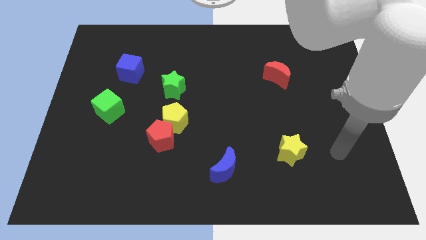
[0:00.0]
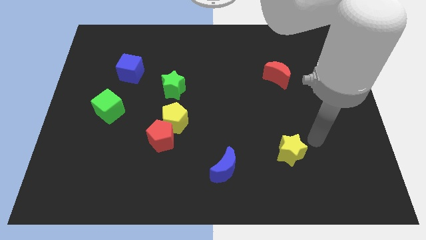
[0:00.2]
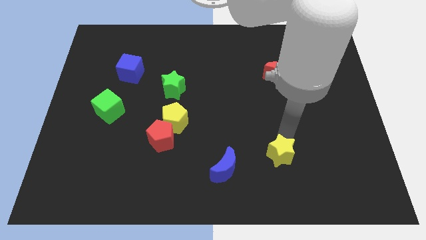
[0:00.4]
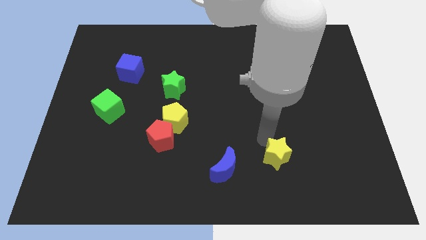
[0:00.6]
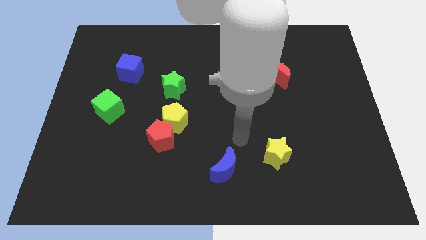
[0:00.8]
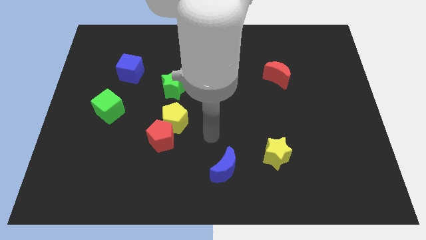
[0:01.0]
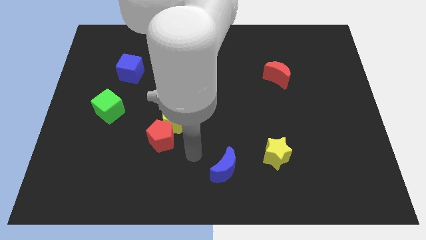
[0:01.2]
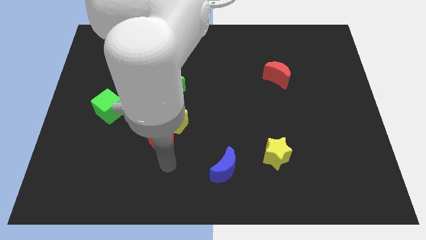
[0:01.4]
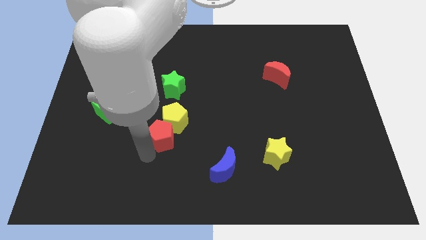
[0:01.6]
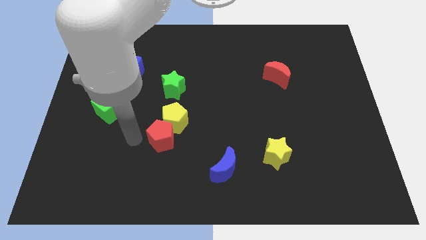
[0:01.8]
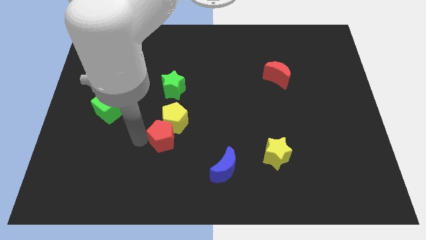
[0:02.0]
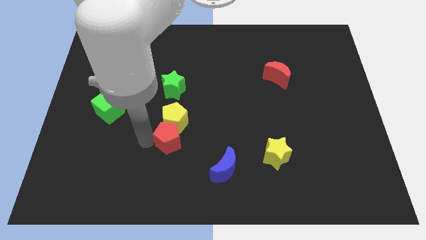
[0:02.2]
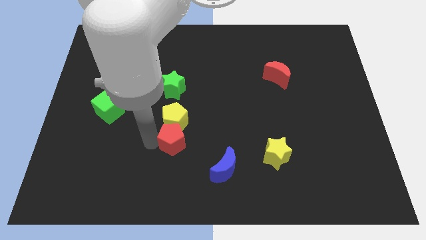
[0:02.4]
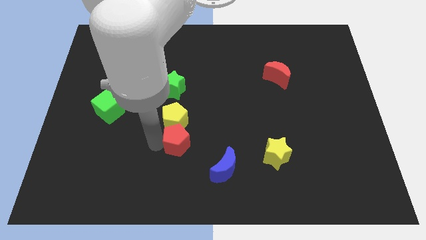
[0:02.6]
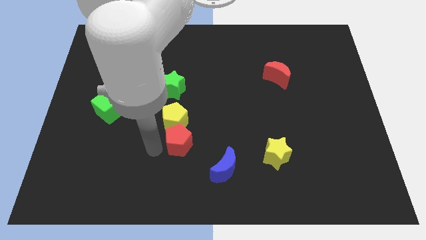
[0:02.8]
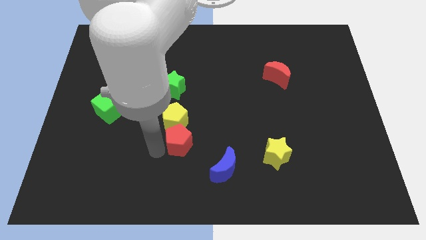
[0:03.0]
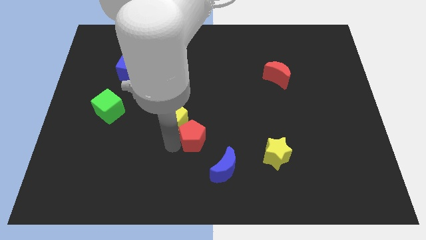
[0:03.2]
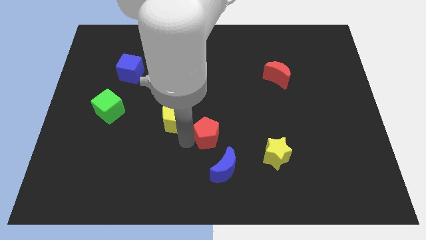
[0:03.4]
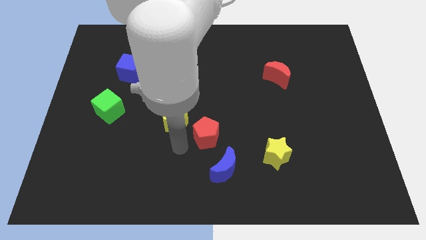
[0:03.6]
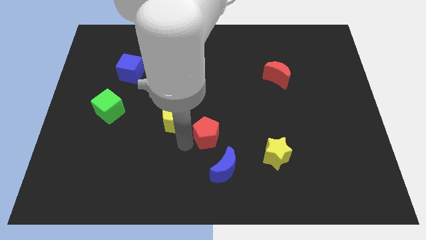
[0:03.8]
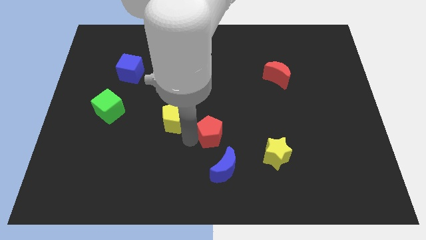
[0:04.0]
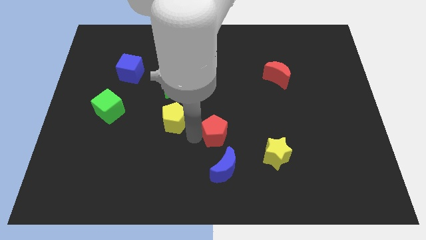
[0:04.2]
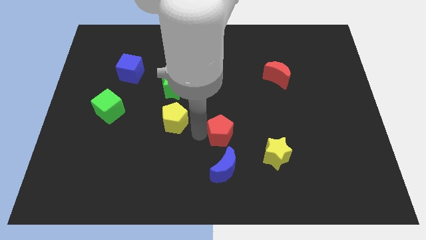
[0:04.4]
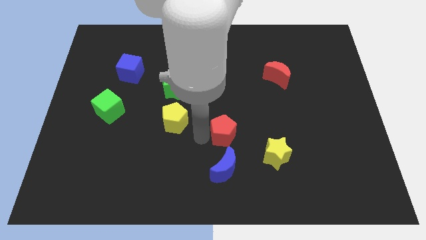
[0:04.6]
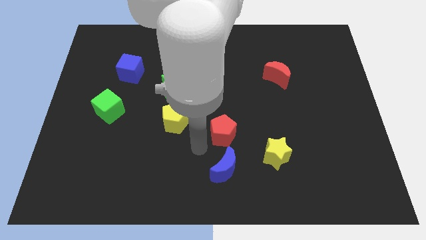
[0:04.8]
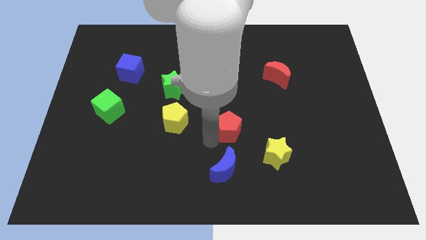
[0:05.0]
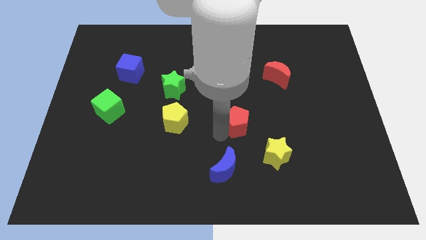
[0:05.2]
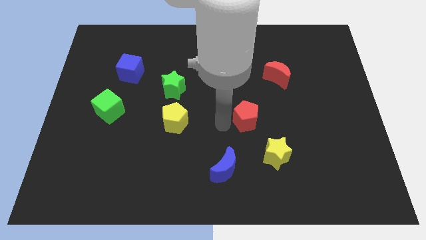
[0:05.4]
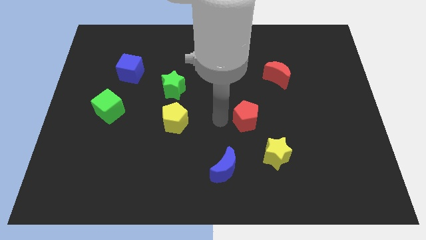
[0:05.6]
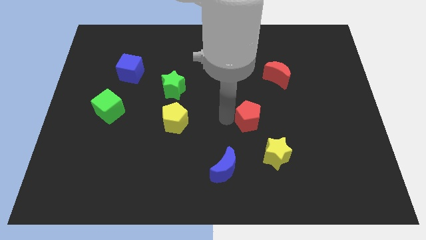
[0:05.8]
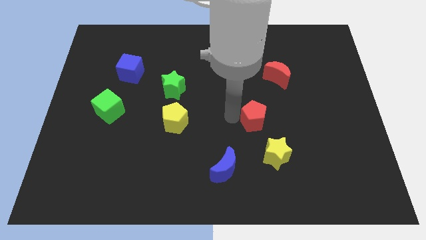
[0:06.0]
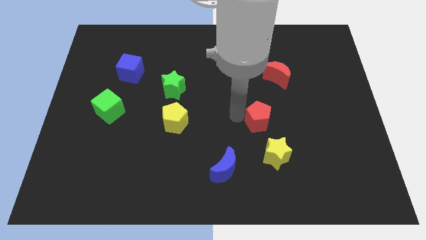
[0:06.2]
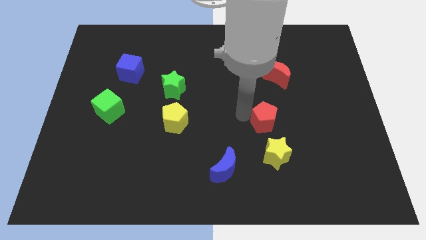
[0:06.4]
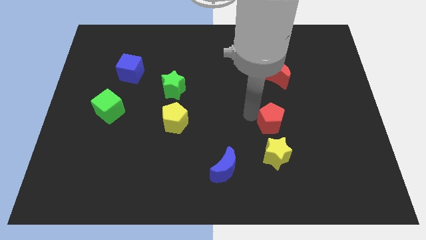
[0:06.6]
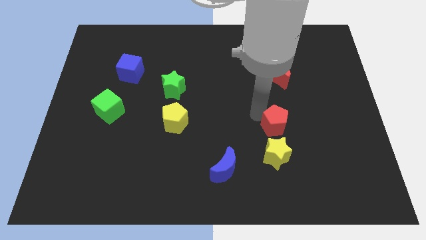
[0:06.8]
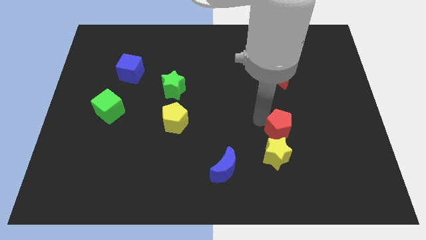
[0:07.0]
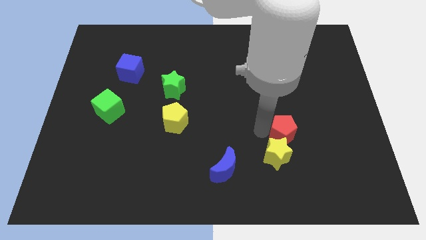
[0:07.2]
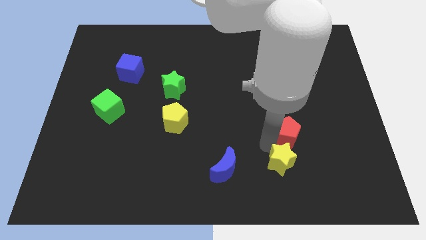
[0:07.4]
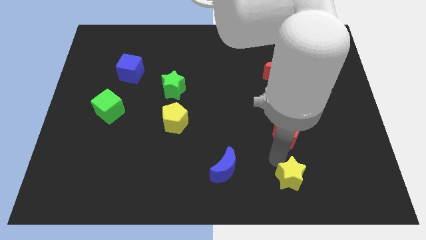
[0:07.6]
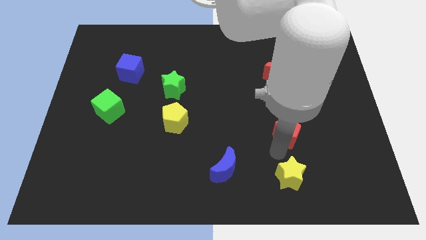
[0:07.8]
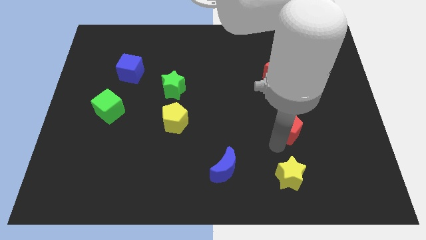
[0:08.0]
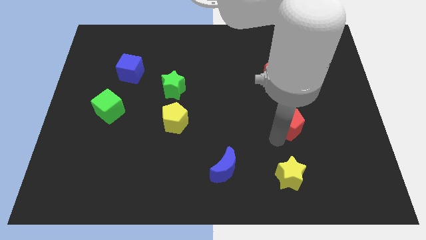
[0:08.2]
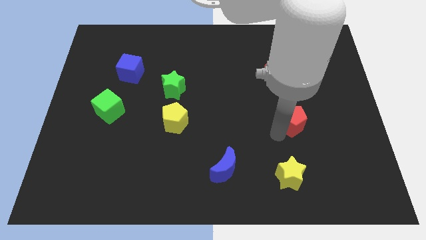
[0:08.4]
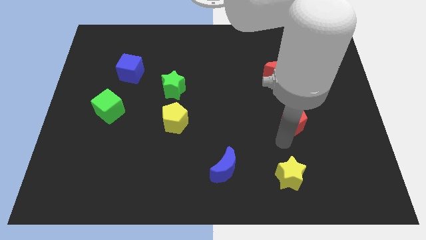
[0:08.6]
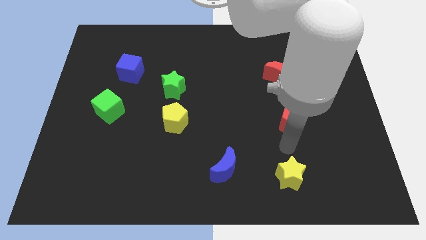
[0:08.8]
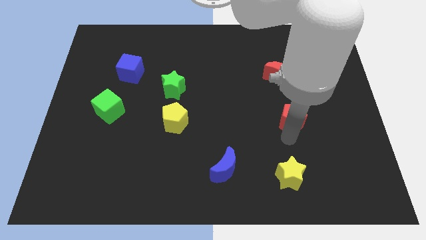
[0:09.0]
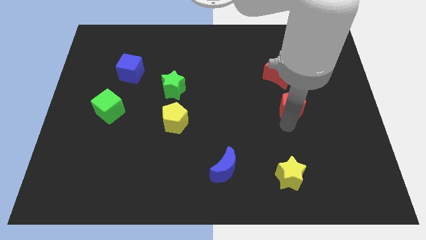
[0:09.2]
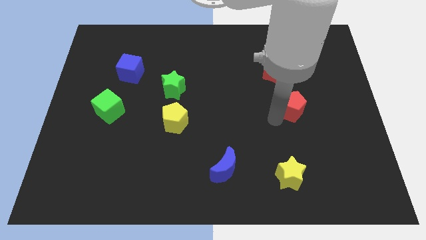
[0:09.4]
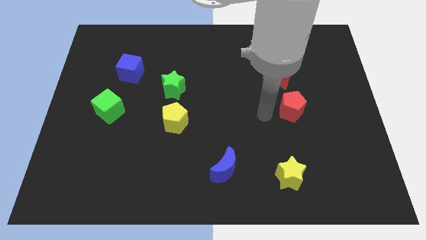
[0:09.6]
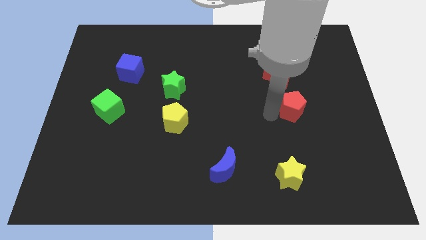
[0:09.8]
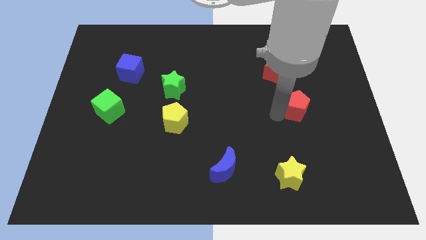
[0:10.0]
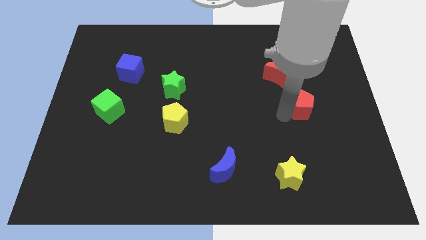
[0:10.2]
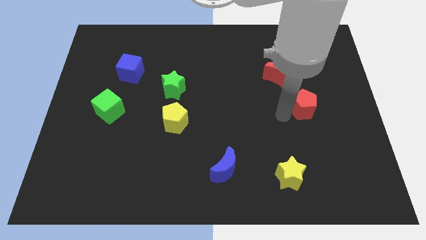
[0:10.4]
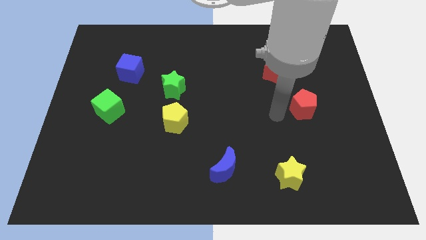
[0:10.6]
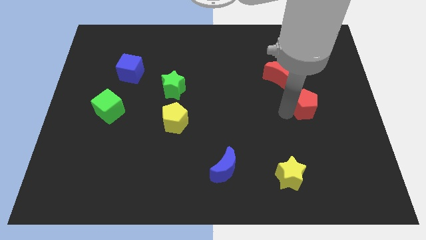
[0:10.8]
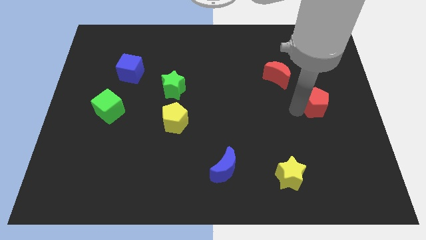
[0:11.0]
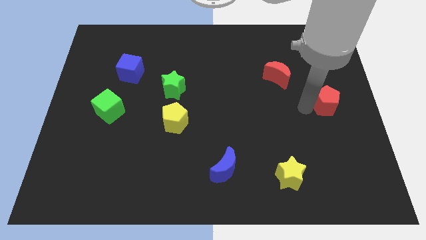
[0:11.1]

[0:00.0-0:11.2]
push the red pentagon to the right side

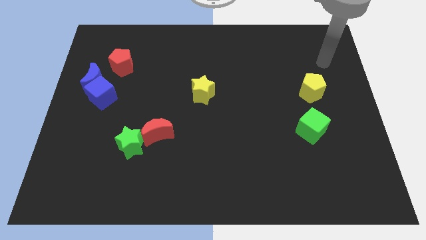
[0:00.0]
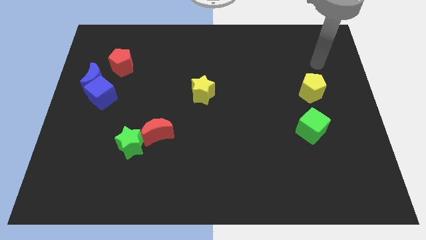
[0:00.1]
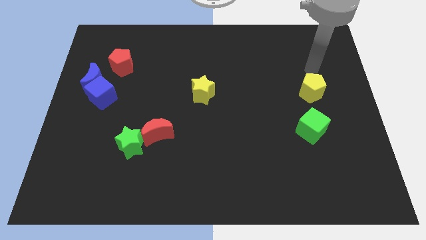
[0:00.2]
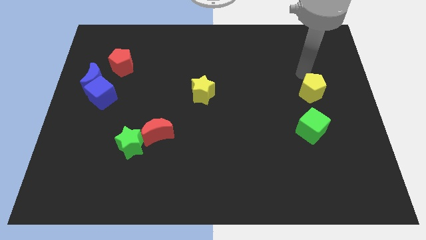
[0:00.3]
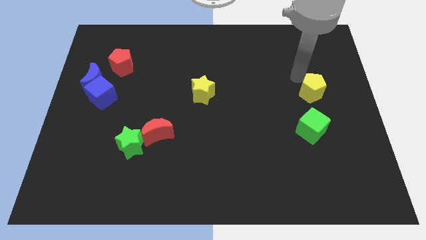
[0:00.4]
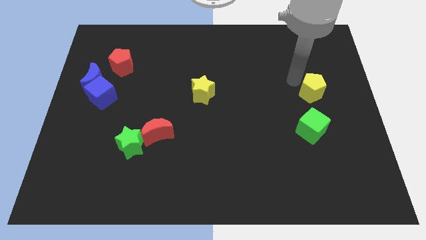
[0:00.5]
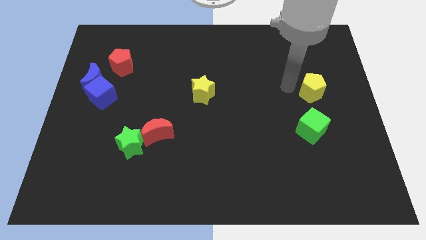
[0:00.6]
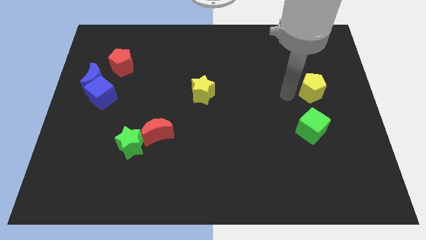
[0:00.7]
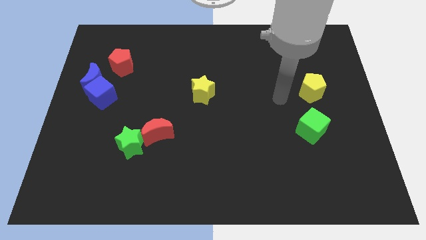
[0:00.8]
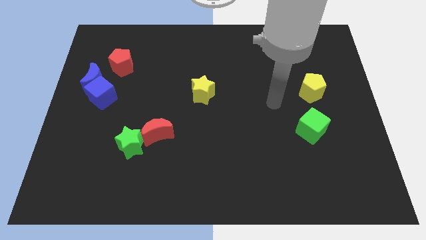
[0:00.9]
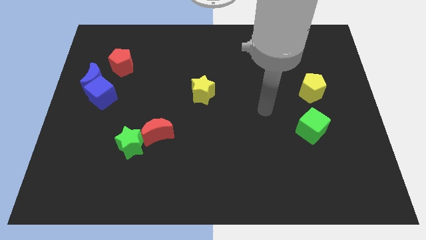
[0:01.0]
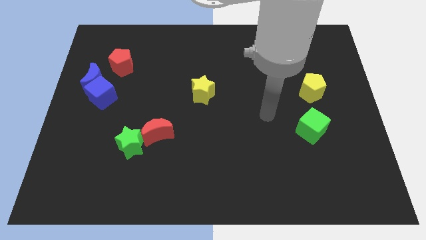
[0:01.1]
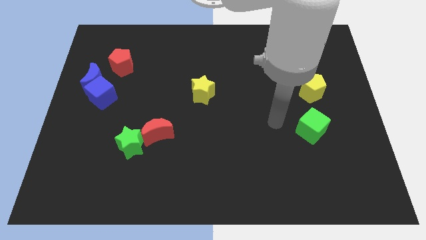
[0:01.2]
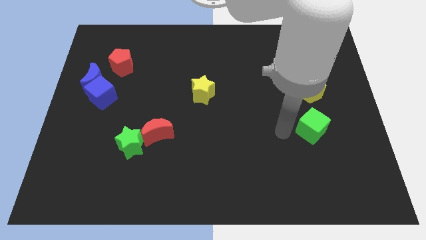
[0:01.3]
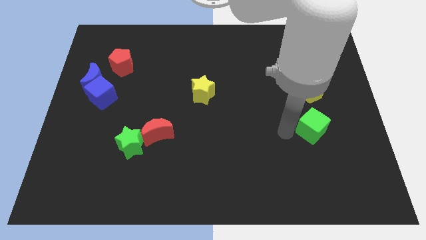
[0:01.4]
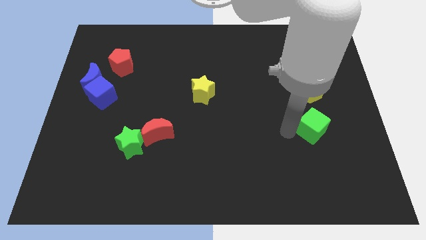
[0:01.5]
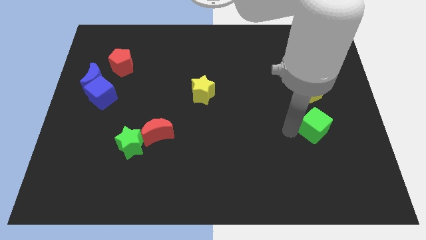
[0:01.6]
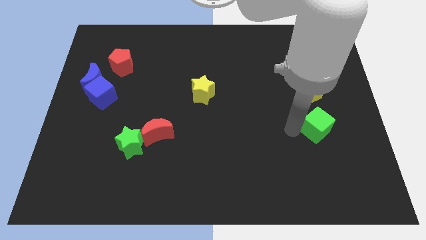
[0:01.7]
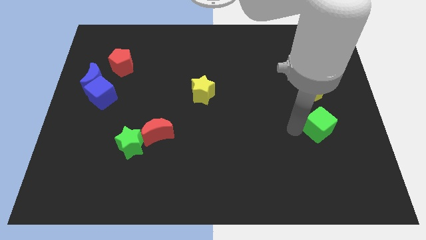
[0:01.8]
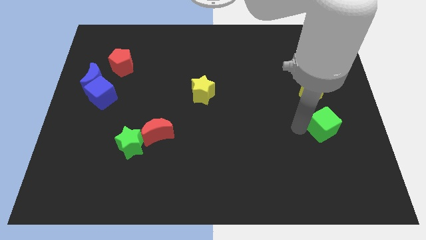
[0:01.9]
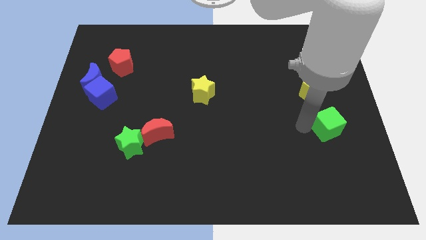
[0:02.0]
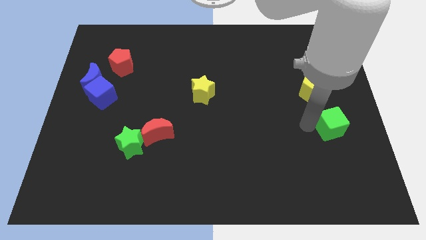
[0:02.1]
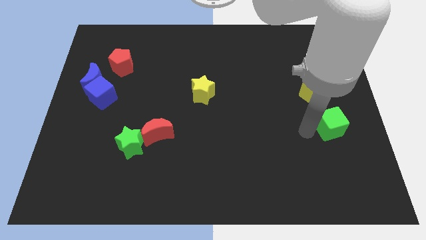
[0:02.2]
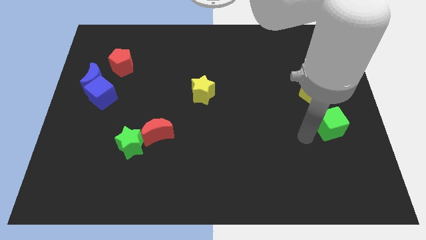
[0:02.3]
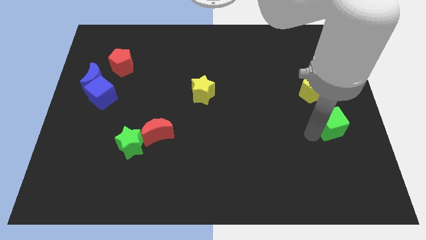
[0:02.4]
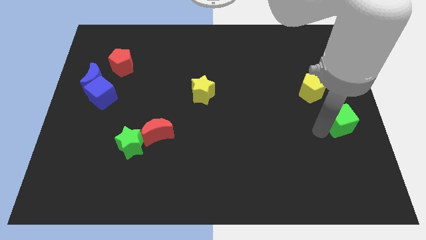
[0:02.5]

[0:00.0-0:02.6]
put the green cube to the right side of the board
